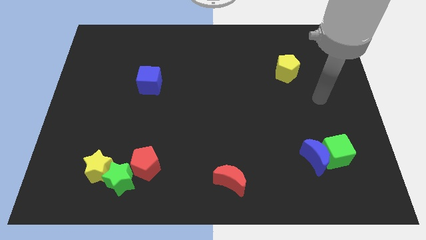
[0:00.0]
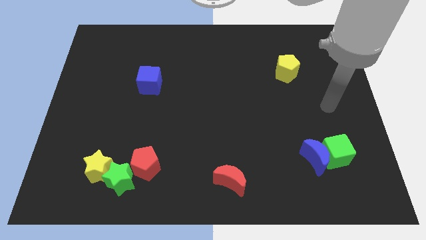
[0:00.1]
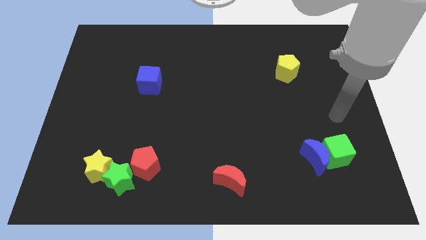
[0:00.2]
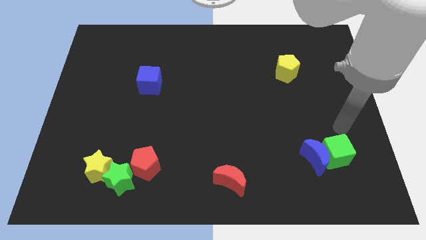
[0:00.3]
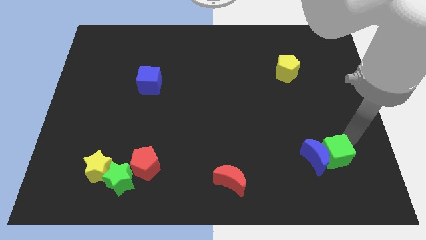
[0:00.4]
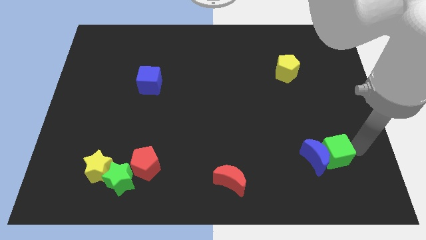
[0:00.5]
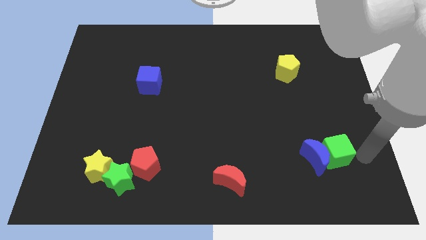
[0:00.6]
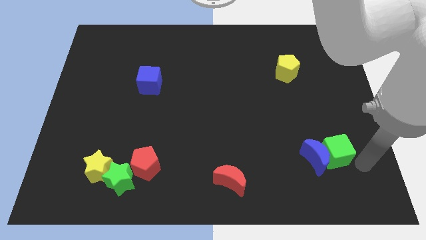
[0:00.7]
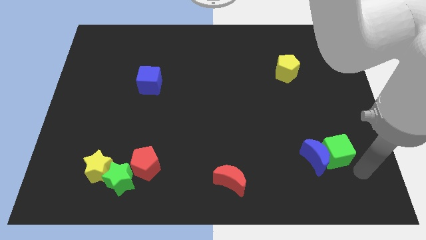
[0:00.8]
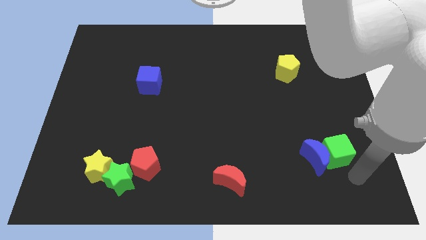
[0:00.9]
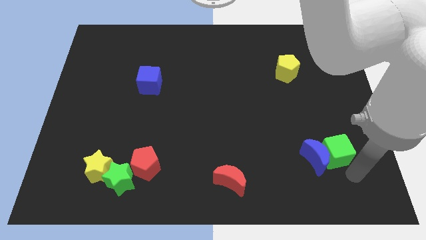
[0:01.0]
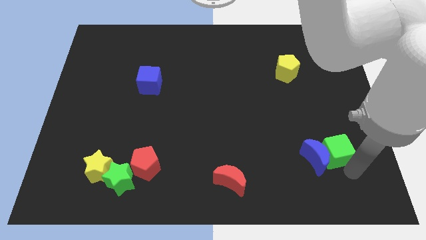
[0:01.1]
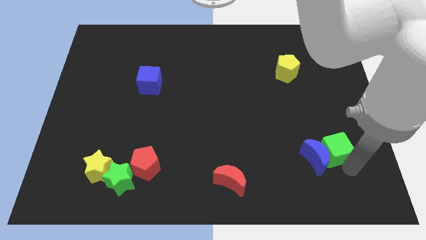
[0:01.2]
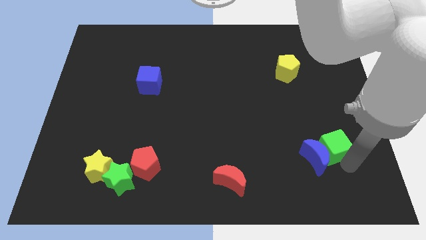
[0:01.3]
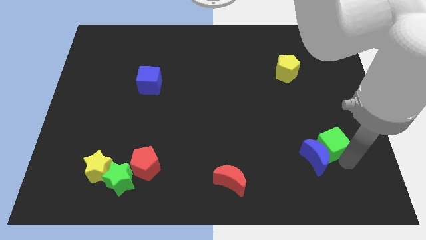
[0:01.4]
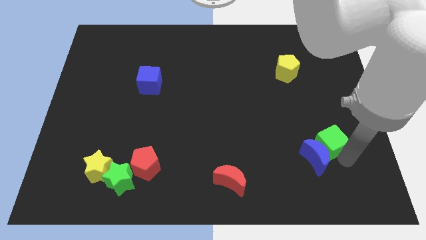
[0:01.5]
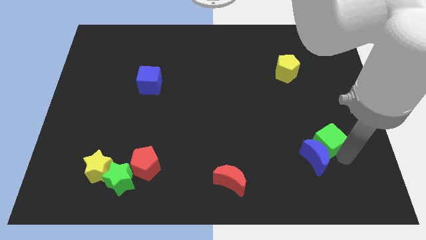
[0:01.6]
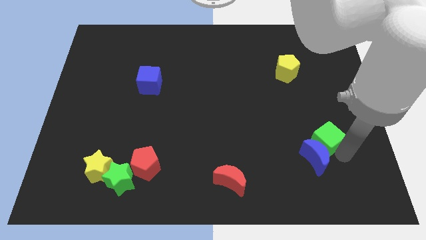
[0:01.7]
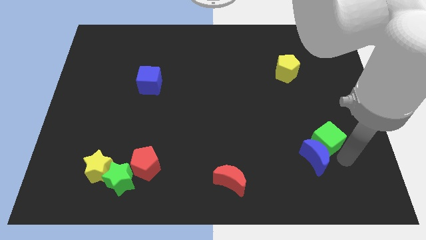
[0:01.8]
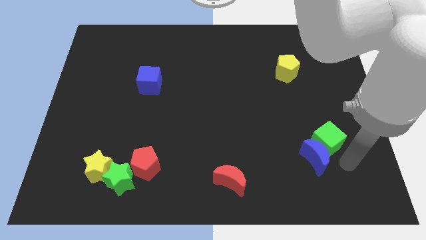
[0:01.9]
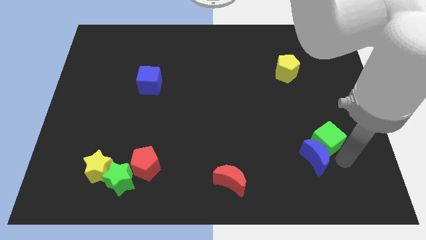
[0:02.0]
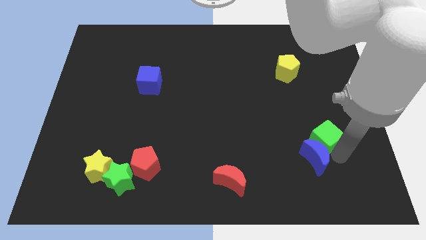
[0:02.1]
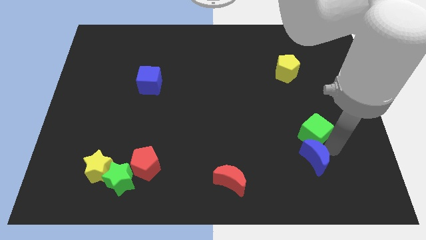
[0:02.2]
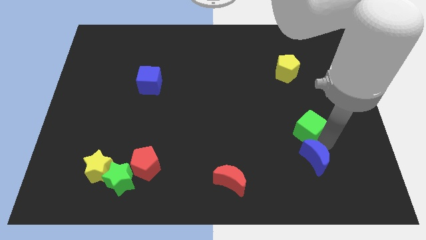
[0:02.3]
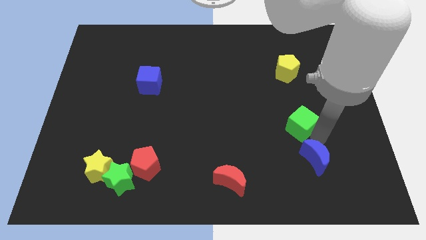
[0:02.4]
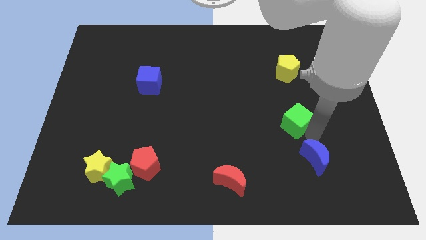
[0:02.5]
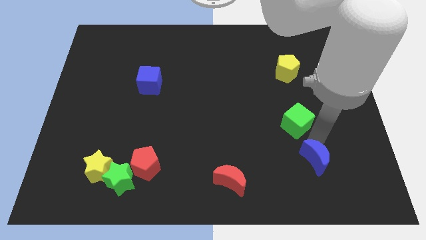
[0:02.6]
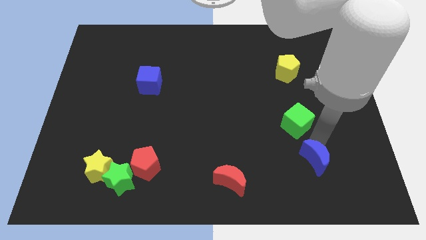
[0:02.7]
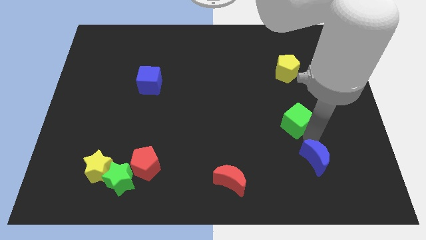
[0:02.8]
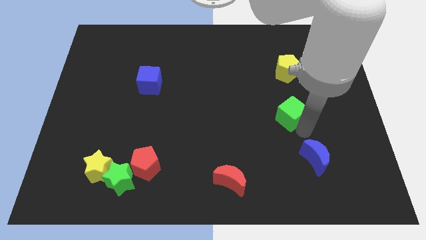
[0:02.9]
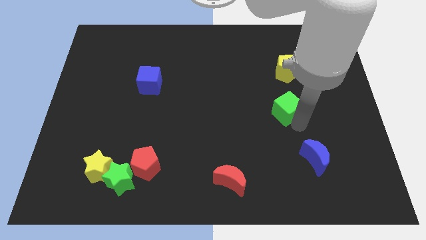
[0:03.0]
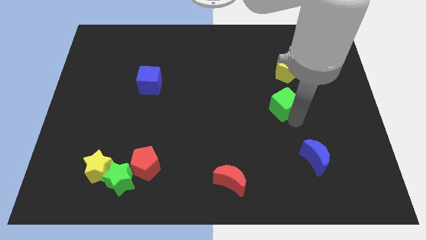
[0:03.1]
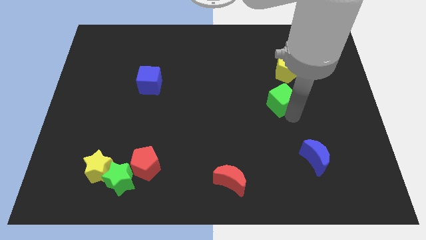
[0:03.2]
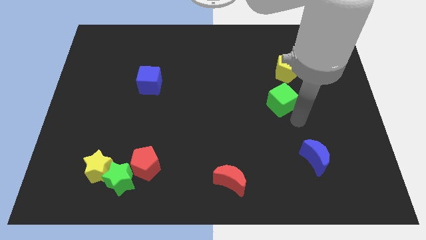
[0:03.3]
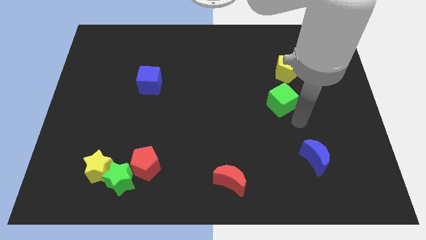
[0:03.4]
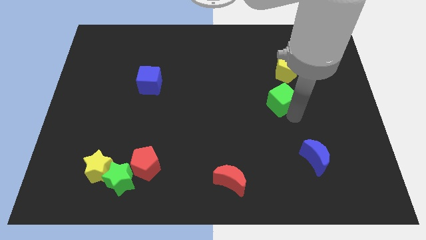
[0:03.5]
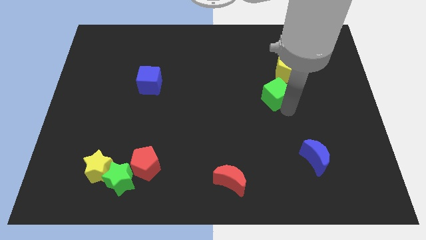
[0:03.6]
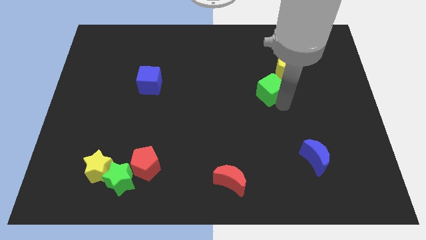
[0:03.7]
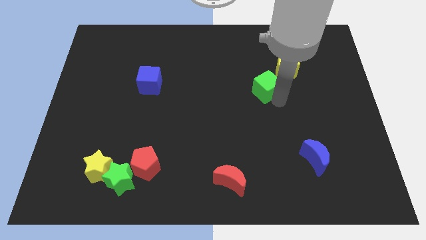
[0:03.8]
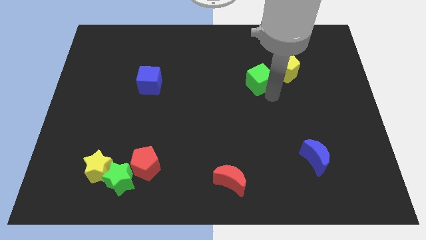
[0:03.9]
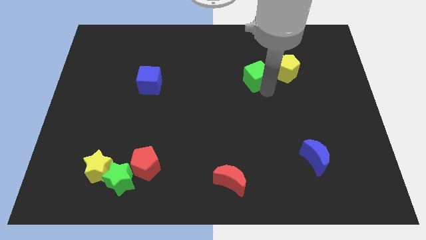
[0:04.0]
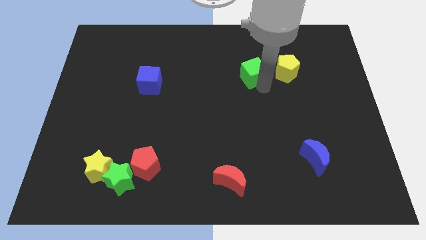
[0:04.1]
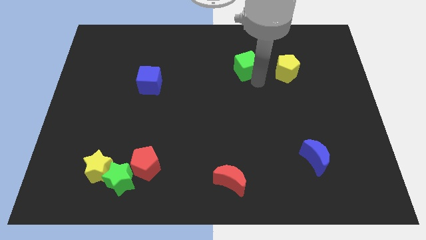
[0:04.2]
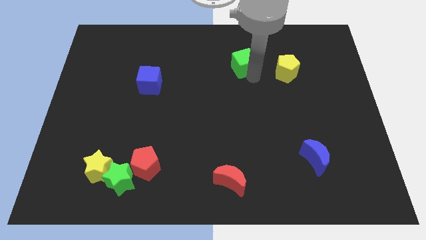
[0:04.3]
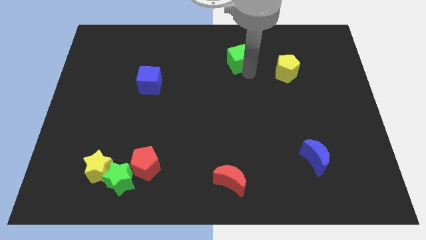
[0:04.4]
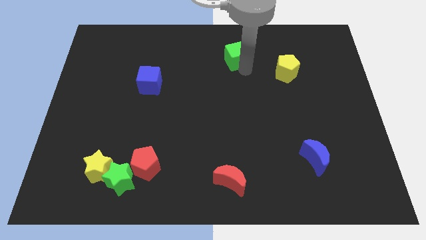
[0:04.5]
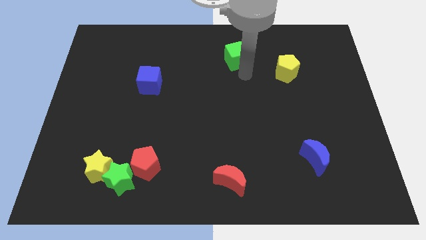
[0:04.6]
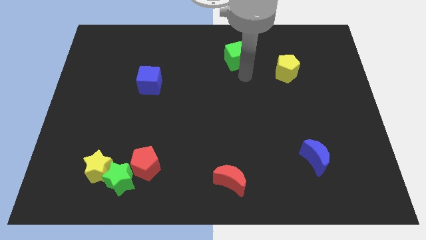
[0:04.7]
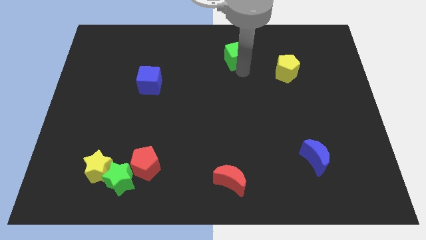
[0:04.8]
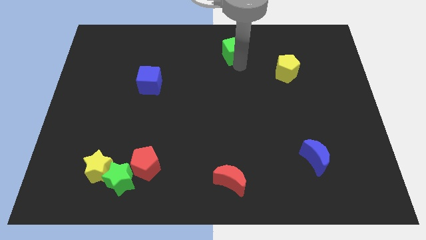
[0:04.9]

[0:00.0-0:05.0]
slide the green cube to the top

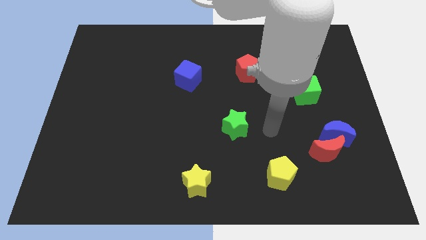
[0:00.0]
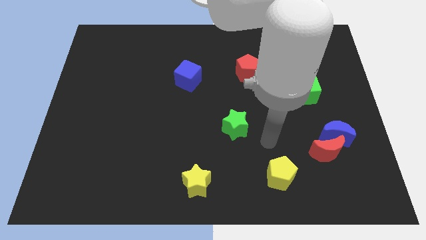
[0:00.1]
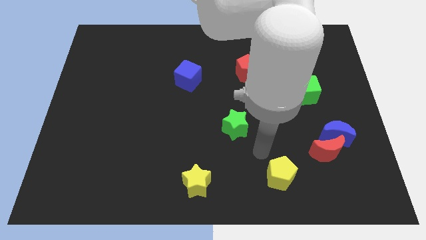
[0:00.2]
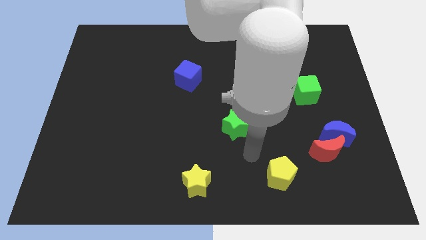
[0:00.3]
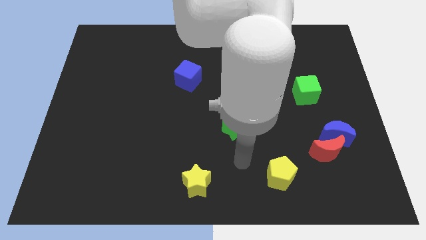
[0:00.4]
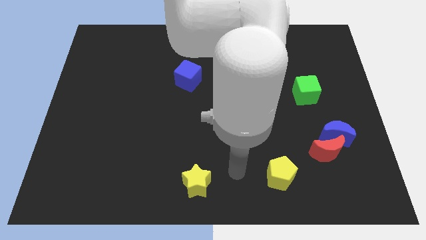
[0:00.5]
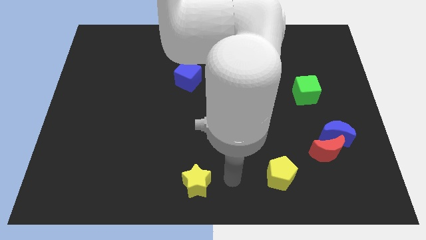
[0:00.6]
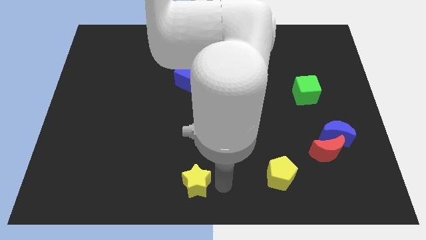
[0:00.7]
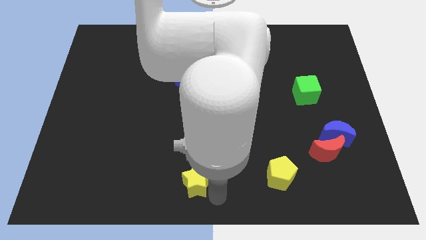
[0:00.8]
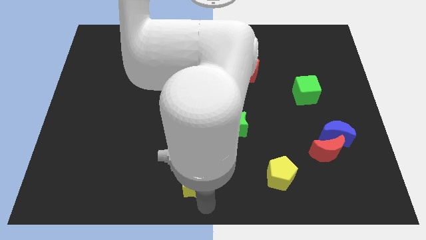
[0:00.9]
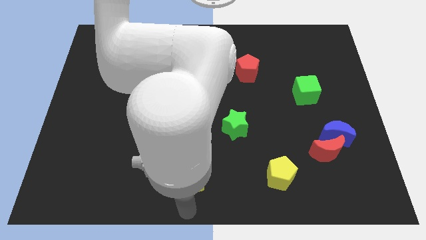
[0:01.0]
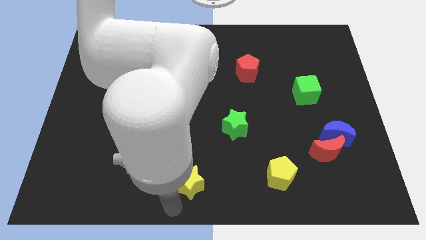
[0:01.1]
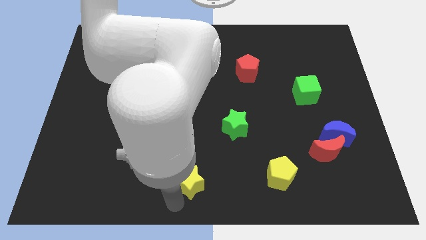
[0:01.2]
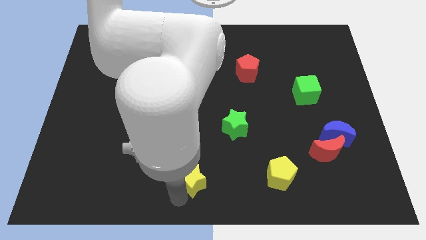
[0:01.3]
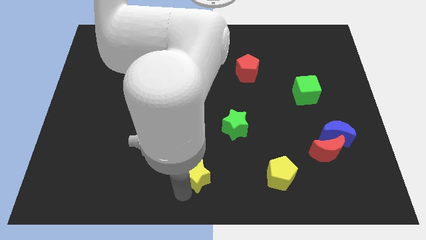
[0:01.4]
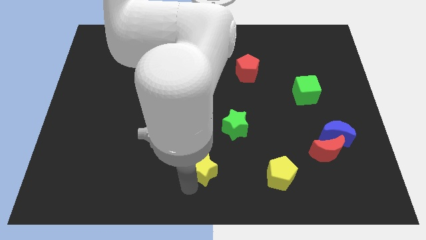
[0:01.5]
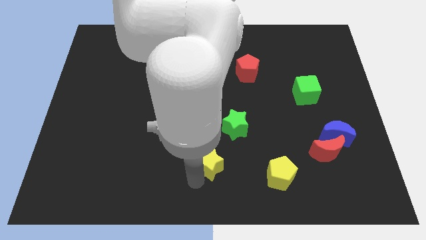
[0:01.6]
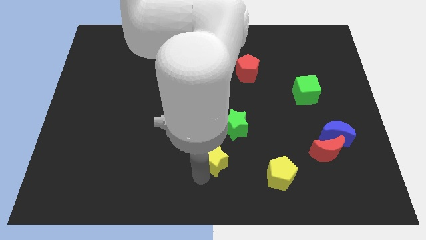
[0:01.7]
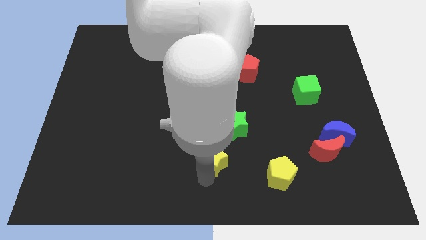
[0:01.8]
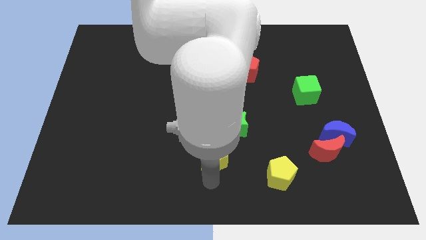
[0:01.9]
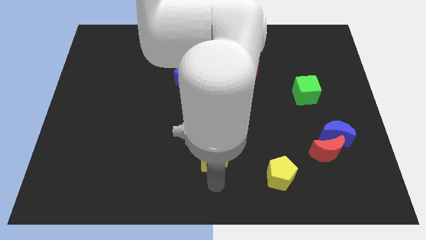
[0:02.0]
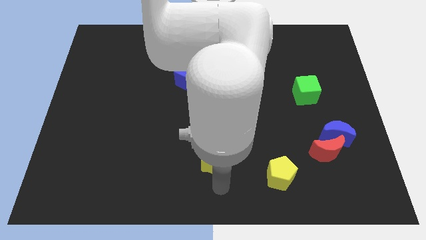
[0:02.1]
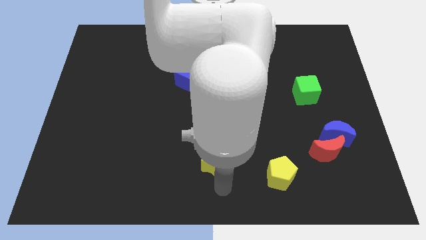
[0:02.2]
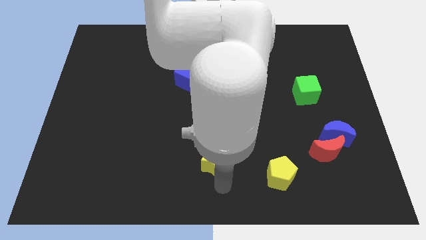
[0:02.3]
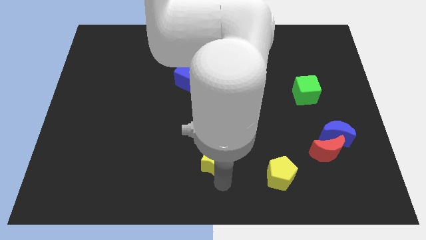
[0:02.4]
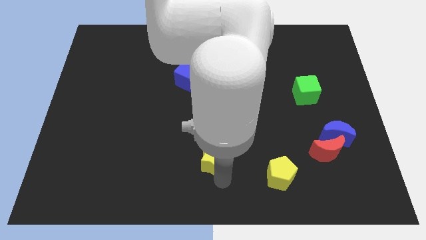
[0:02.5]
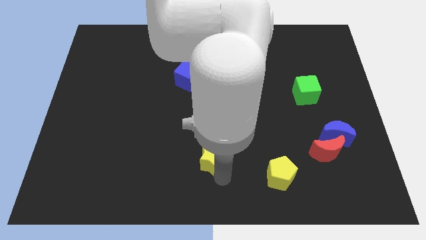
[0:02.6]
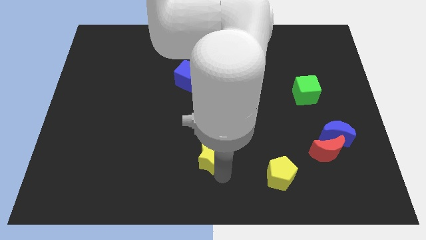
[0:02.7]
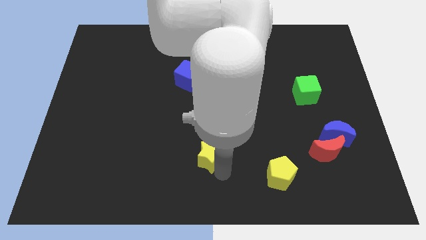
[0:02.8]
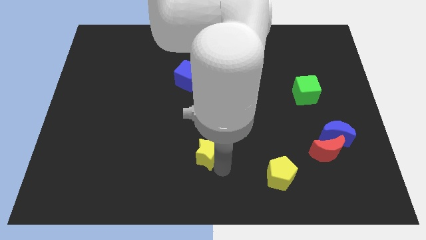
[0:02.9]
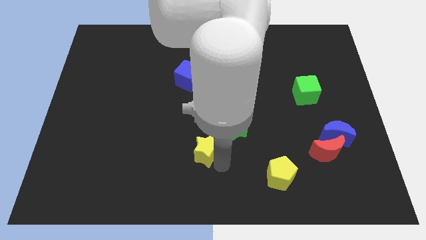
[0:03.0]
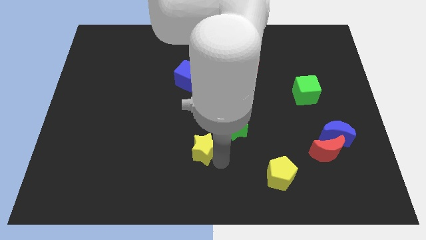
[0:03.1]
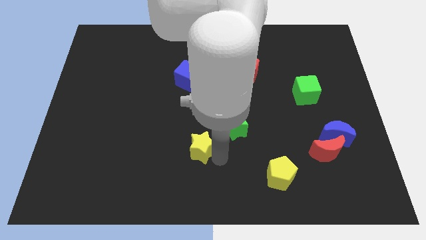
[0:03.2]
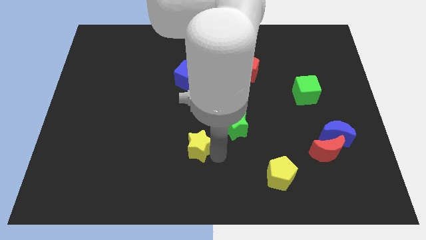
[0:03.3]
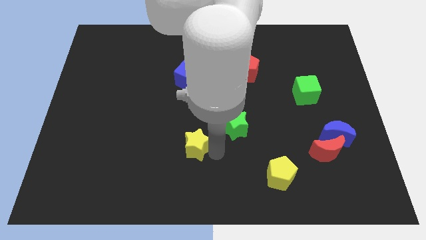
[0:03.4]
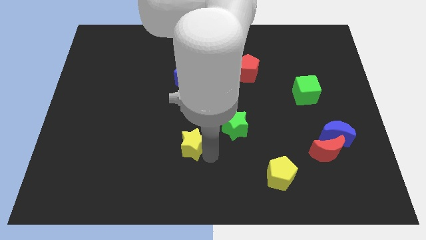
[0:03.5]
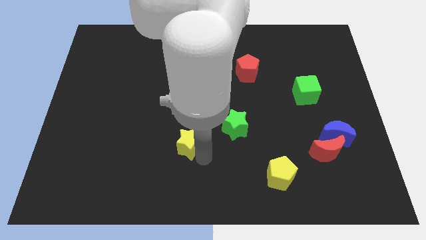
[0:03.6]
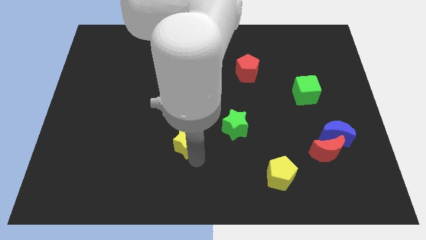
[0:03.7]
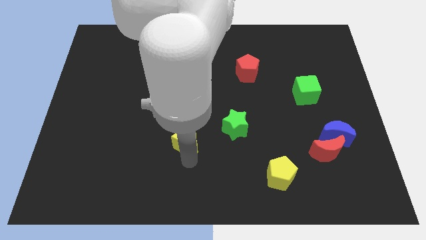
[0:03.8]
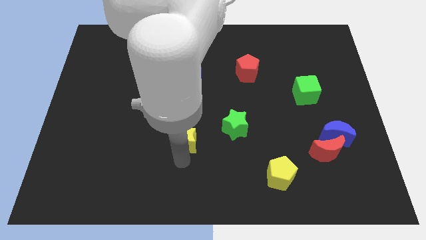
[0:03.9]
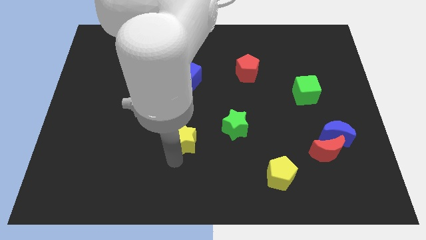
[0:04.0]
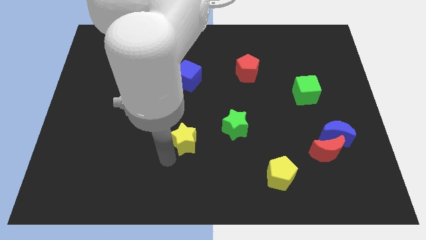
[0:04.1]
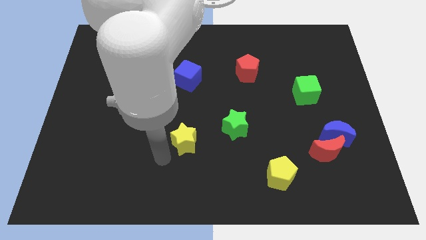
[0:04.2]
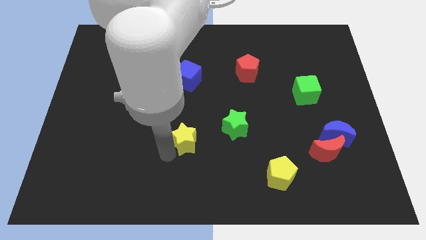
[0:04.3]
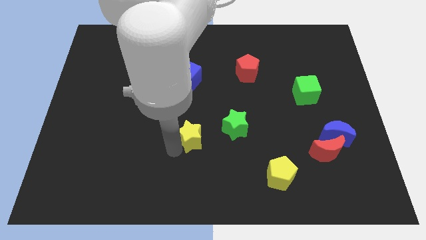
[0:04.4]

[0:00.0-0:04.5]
move the yellow star to the center
